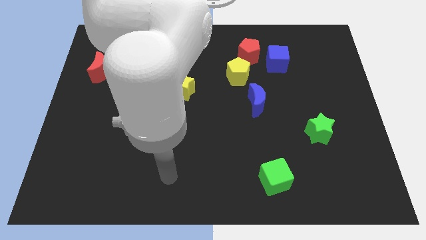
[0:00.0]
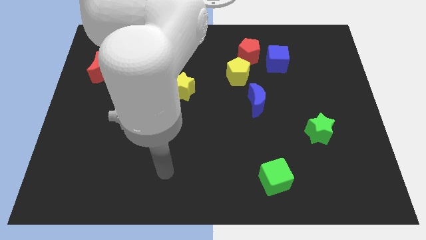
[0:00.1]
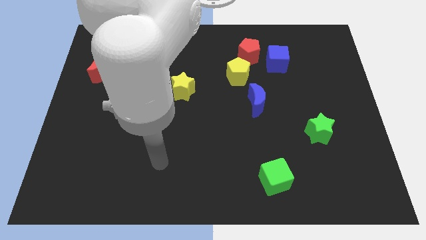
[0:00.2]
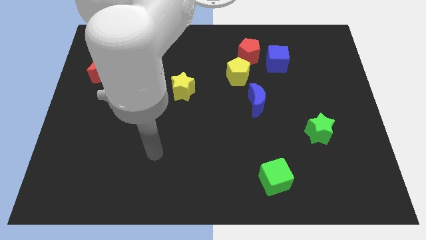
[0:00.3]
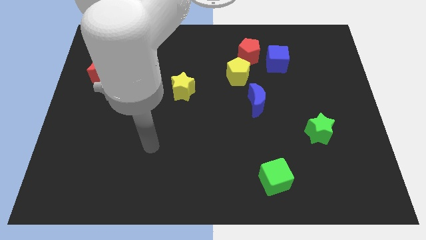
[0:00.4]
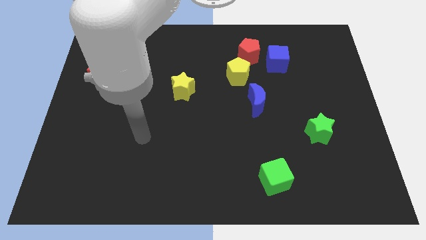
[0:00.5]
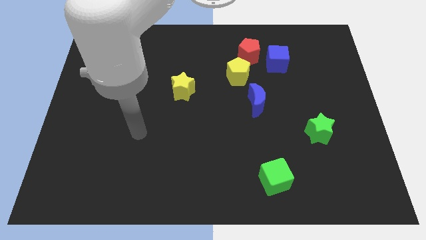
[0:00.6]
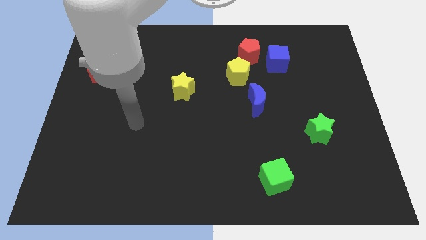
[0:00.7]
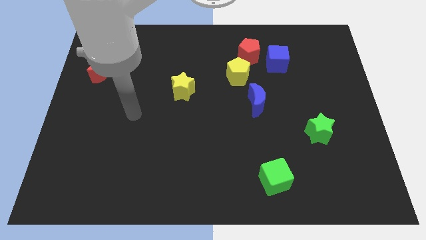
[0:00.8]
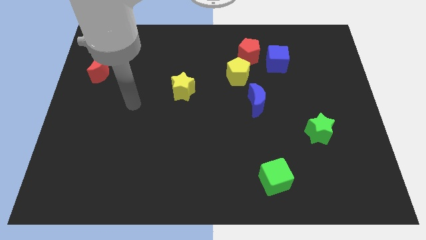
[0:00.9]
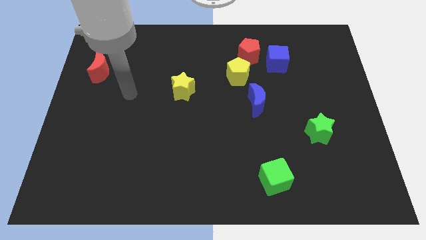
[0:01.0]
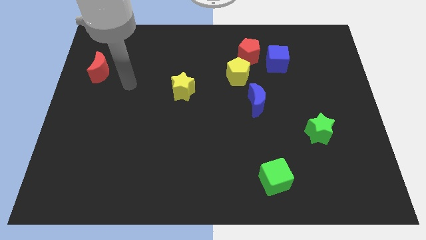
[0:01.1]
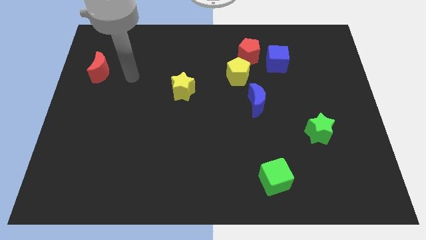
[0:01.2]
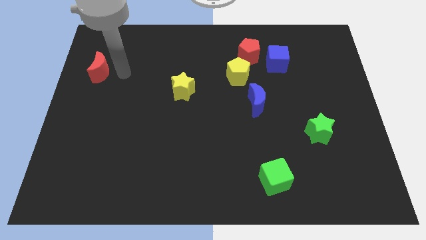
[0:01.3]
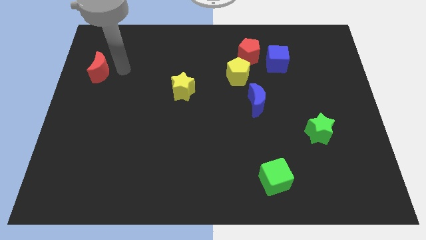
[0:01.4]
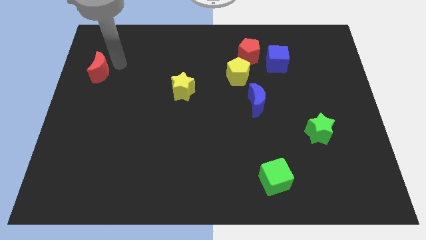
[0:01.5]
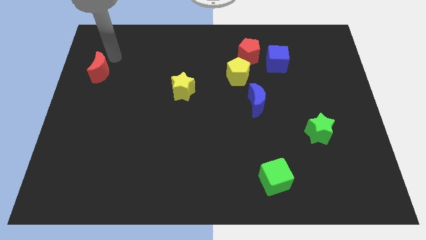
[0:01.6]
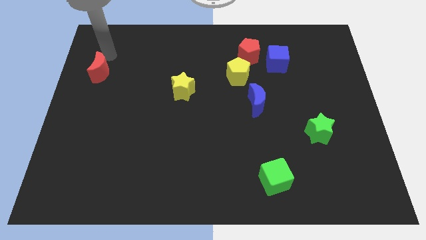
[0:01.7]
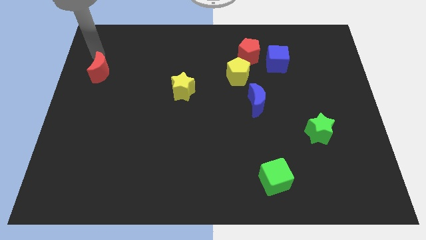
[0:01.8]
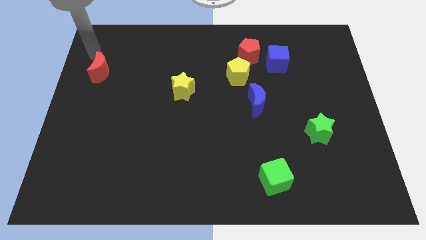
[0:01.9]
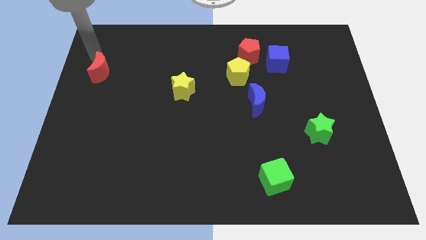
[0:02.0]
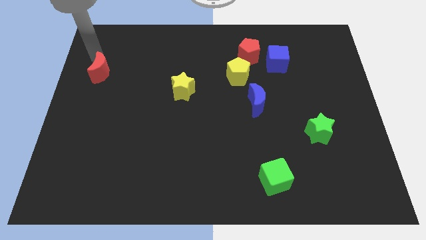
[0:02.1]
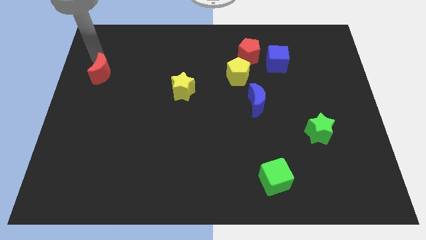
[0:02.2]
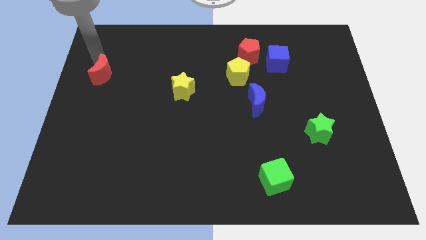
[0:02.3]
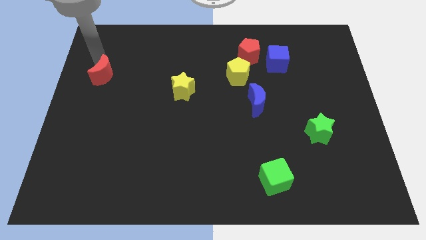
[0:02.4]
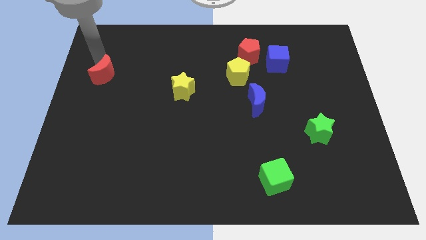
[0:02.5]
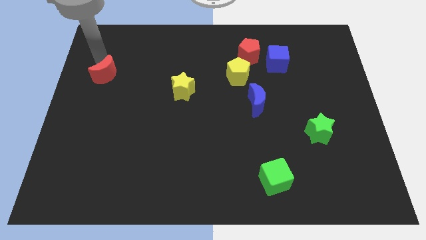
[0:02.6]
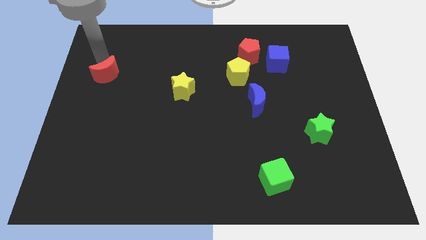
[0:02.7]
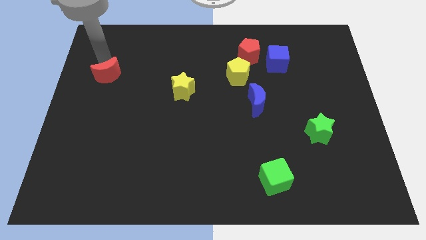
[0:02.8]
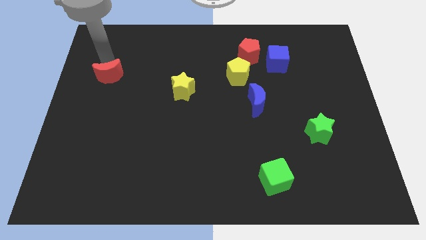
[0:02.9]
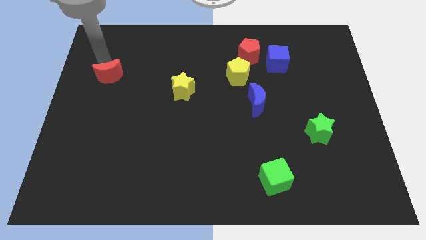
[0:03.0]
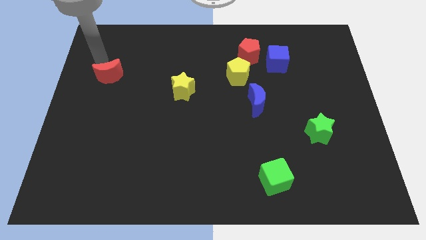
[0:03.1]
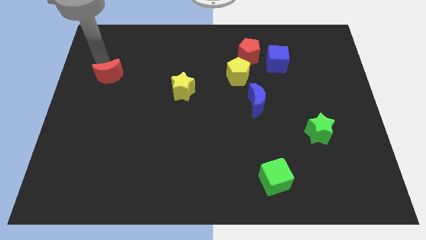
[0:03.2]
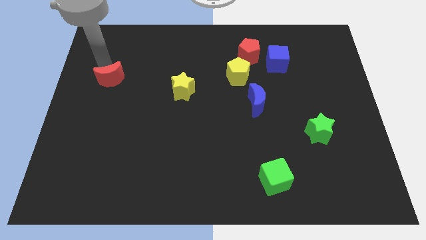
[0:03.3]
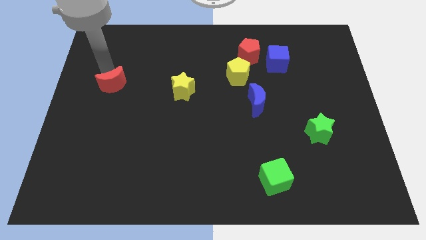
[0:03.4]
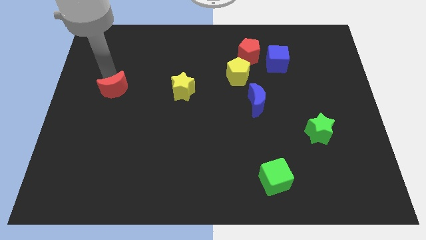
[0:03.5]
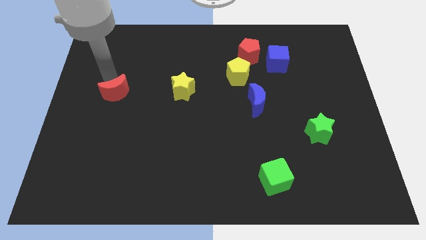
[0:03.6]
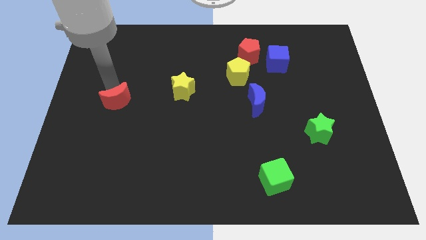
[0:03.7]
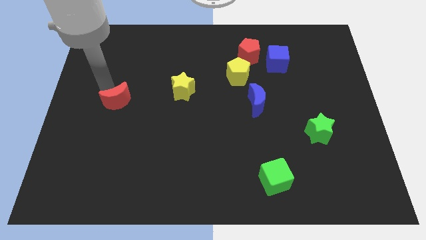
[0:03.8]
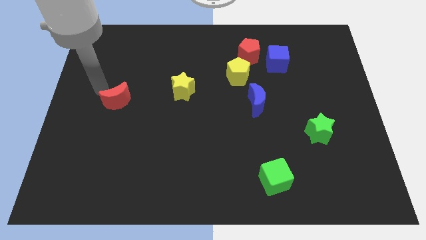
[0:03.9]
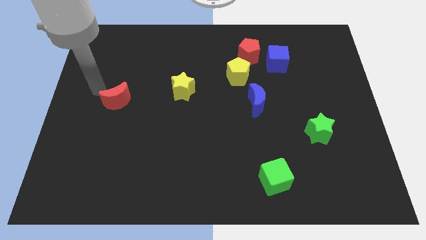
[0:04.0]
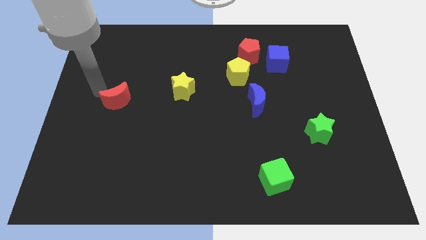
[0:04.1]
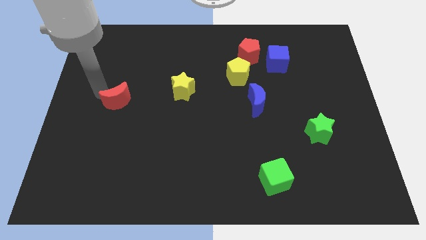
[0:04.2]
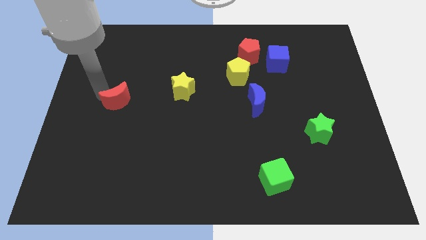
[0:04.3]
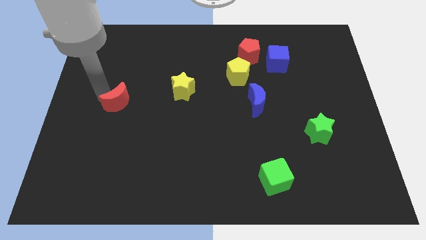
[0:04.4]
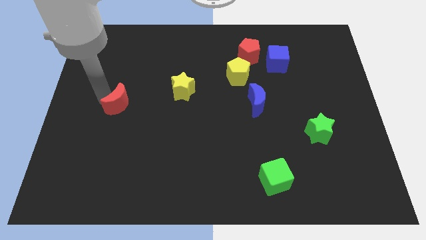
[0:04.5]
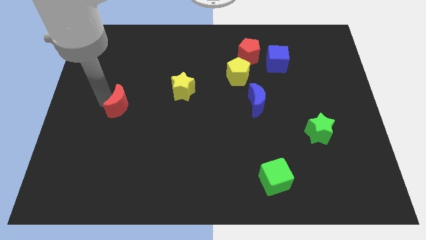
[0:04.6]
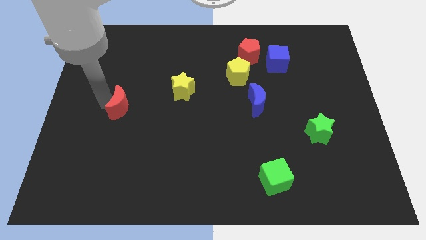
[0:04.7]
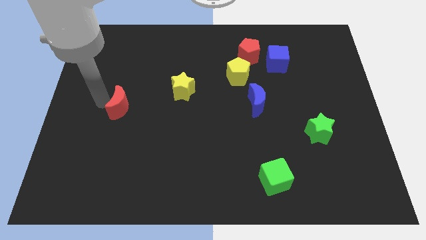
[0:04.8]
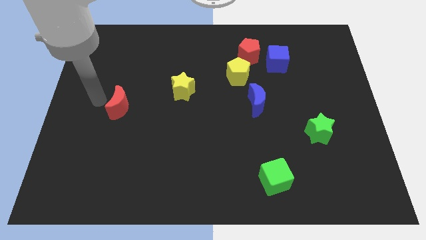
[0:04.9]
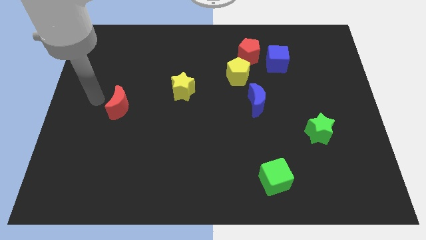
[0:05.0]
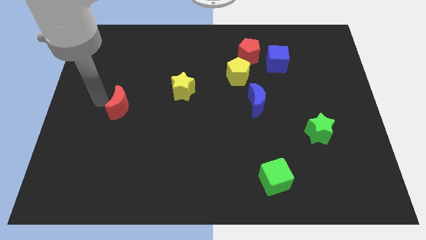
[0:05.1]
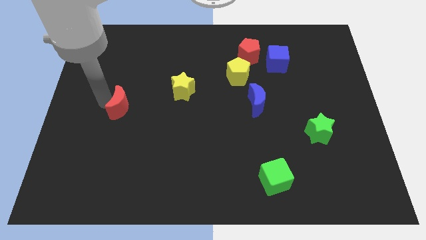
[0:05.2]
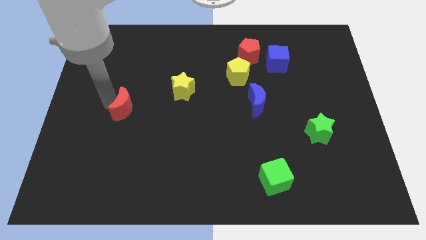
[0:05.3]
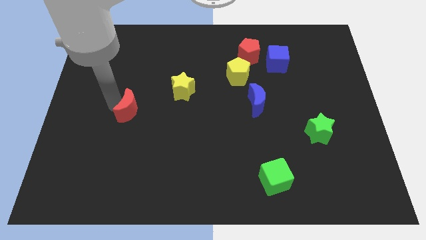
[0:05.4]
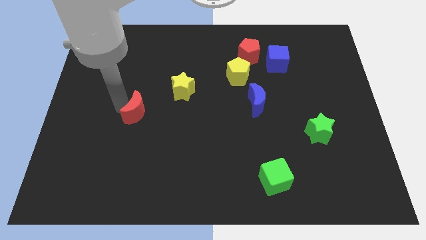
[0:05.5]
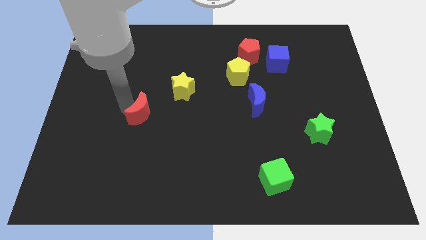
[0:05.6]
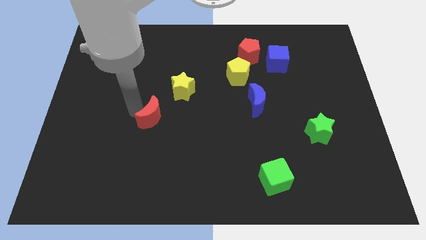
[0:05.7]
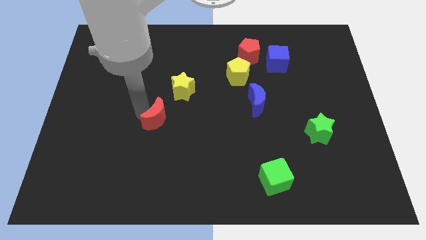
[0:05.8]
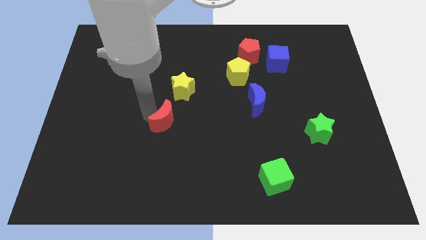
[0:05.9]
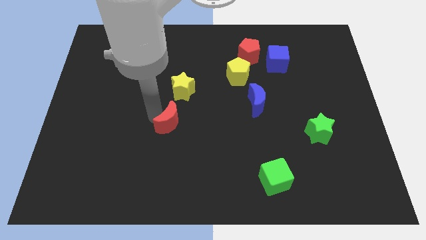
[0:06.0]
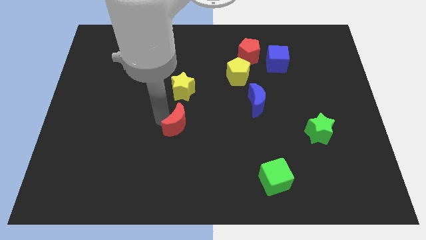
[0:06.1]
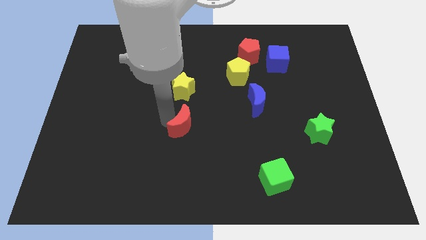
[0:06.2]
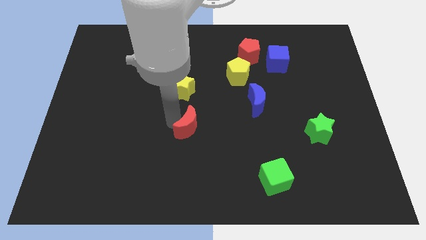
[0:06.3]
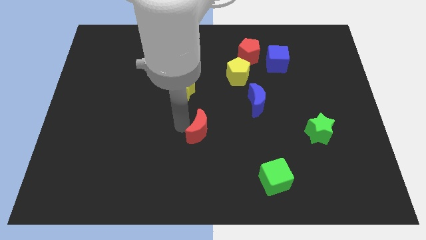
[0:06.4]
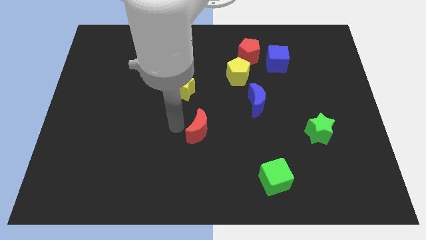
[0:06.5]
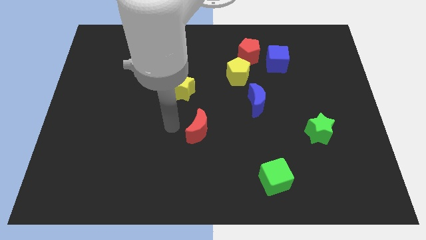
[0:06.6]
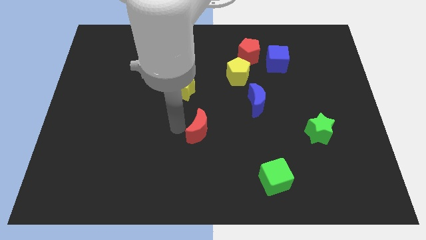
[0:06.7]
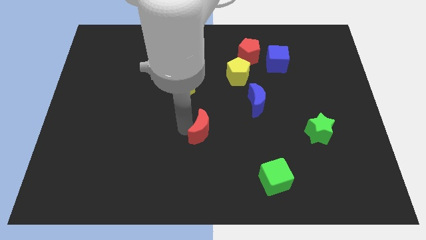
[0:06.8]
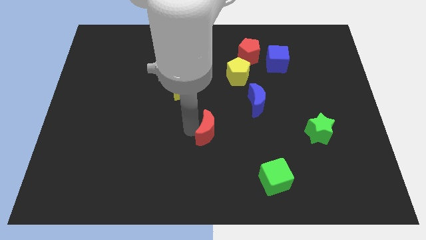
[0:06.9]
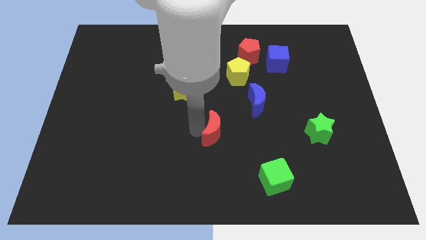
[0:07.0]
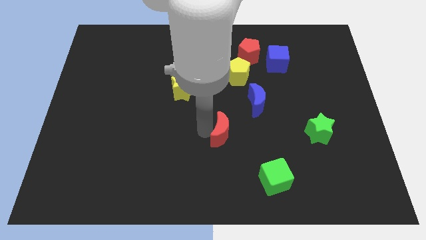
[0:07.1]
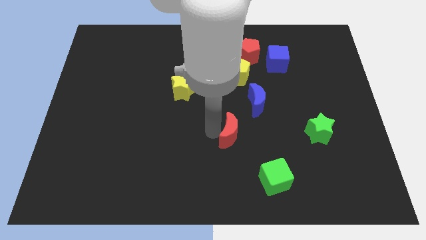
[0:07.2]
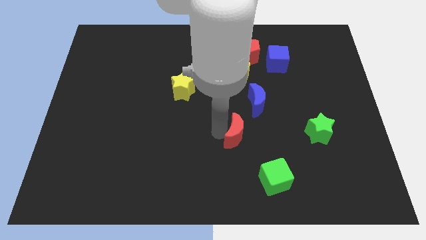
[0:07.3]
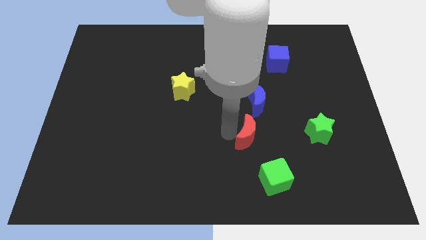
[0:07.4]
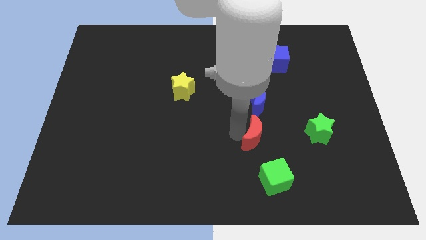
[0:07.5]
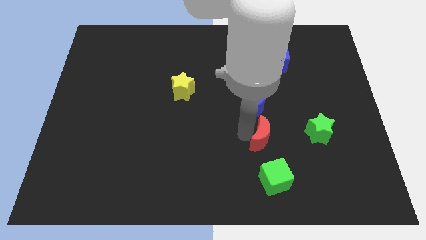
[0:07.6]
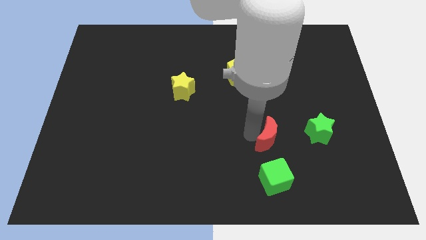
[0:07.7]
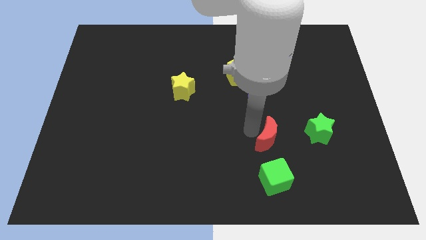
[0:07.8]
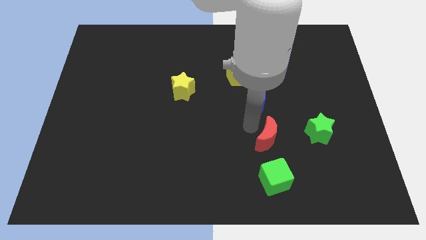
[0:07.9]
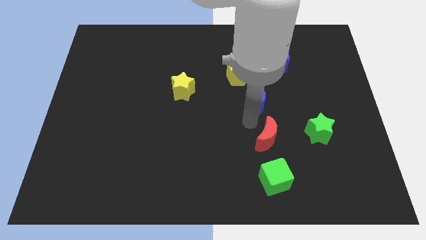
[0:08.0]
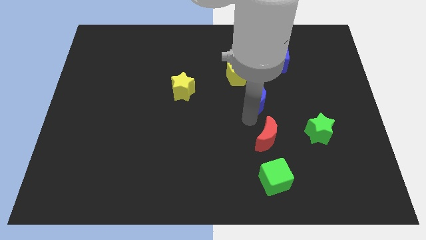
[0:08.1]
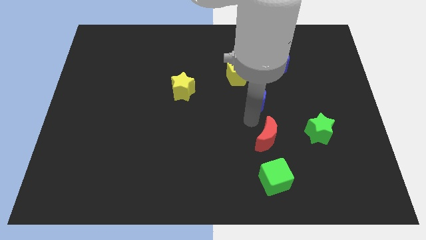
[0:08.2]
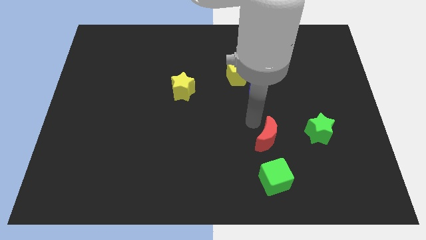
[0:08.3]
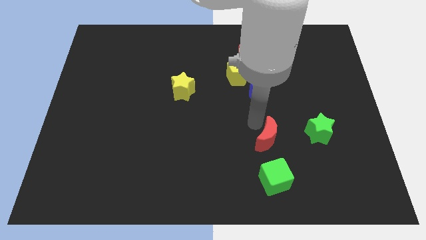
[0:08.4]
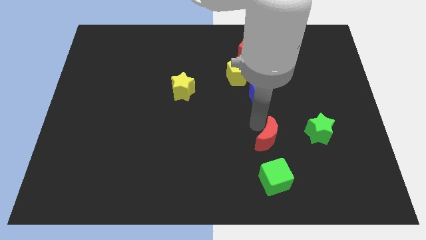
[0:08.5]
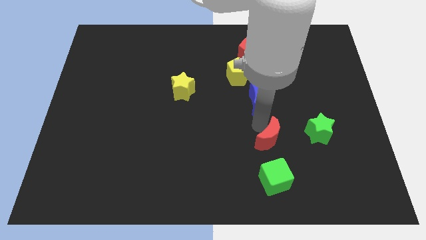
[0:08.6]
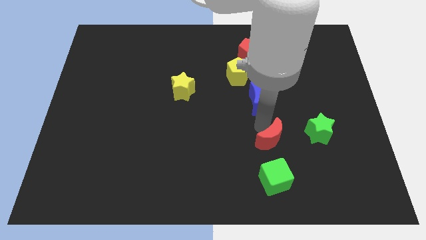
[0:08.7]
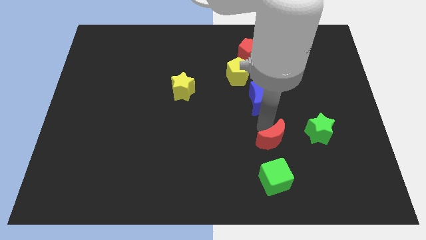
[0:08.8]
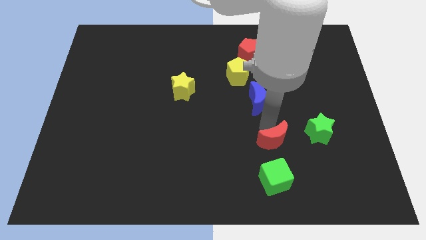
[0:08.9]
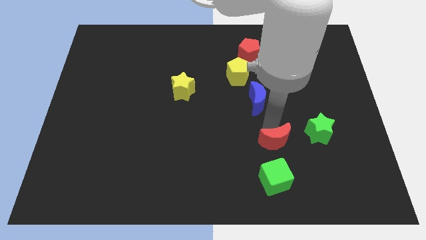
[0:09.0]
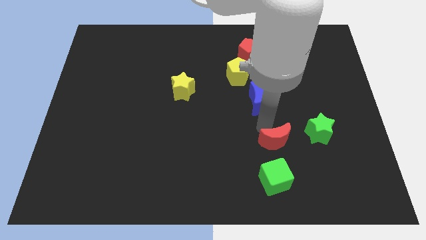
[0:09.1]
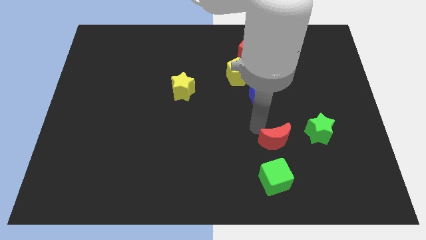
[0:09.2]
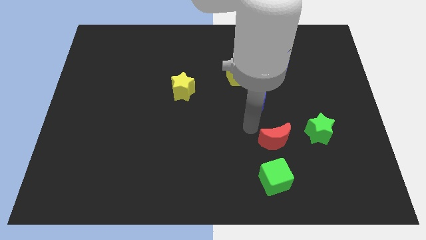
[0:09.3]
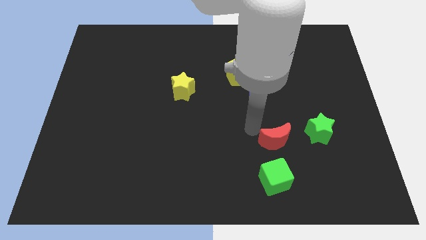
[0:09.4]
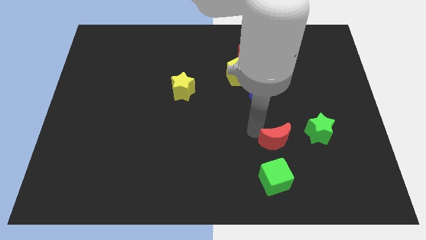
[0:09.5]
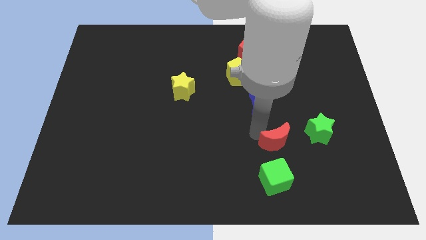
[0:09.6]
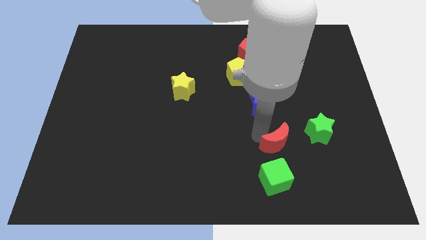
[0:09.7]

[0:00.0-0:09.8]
move the red moon to the bottom left of the green star
